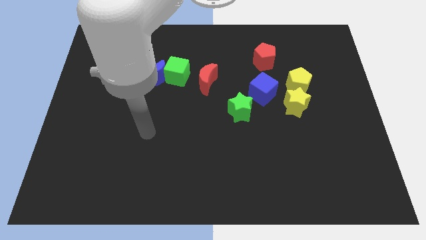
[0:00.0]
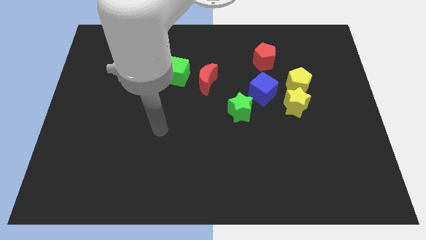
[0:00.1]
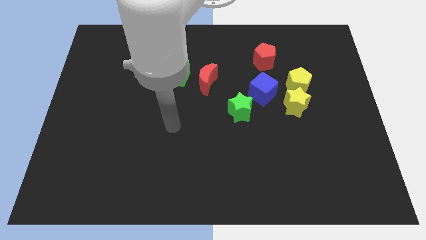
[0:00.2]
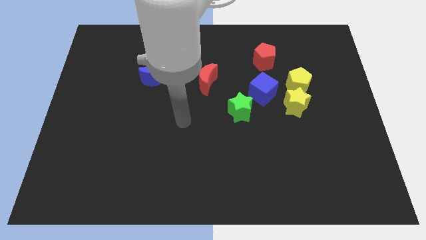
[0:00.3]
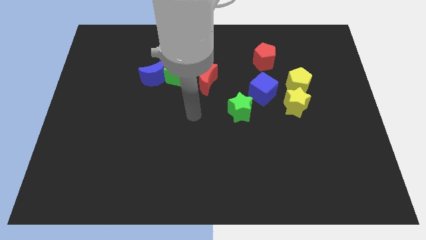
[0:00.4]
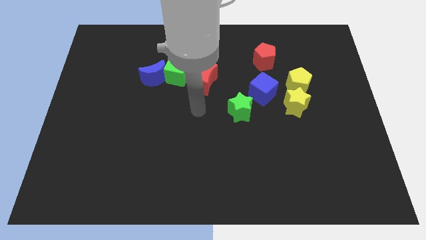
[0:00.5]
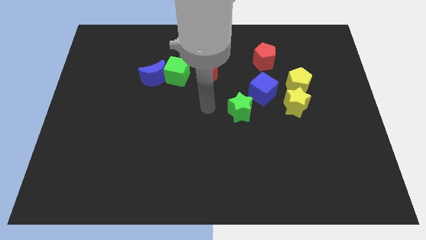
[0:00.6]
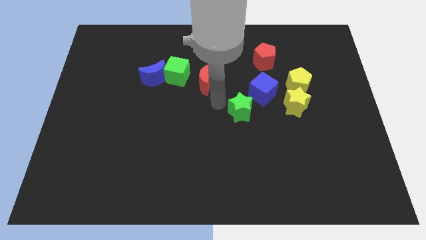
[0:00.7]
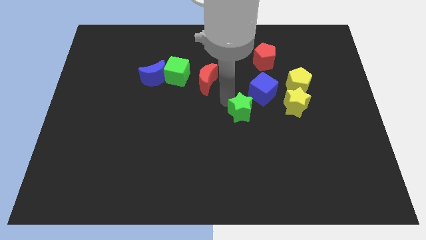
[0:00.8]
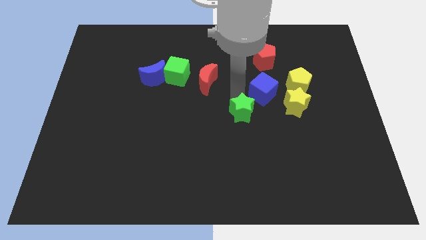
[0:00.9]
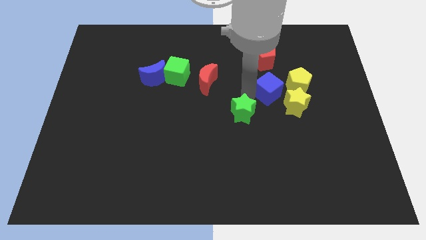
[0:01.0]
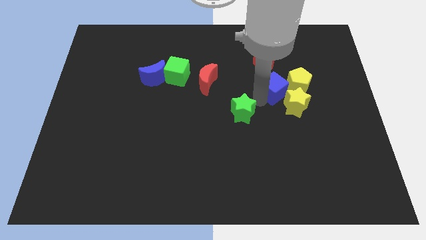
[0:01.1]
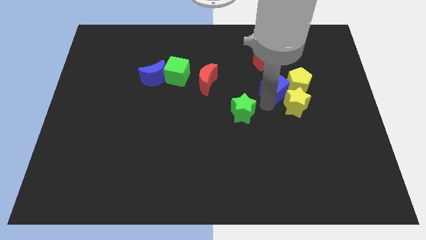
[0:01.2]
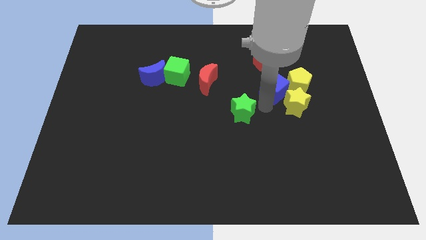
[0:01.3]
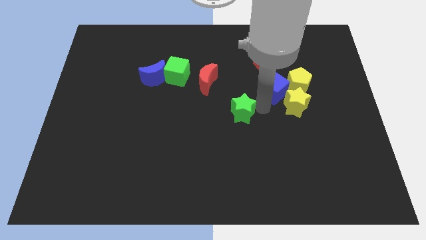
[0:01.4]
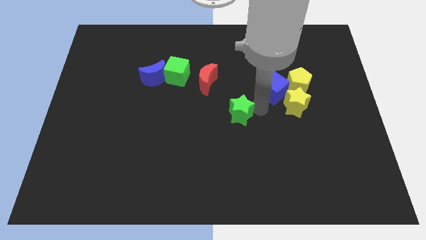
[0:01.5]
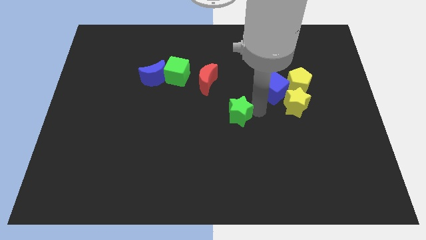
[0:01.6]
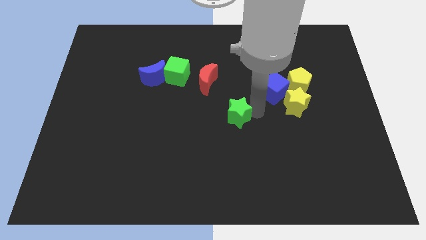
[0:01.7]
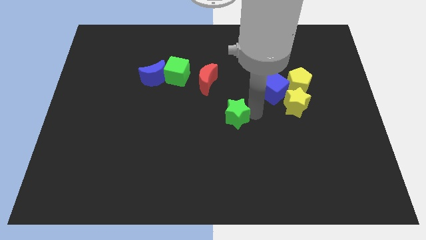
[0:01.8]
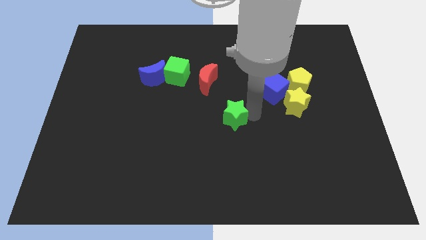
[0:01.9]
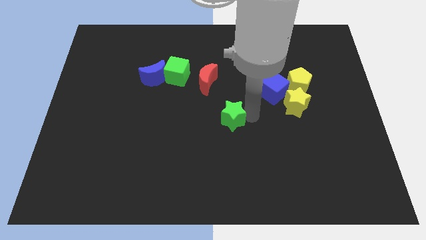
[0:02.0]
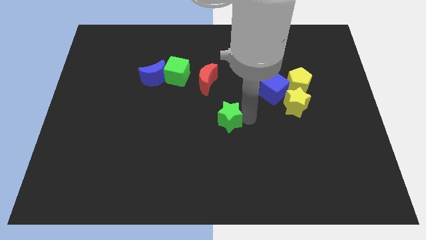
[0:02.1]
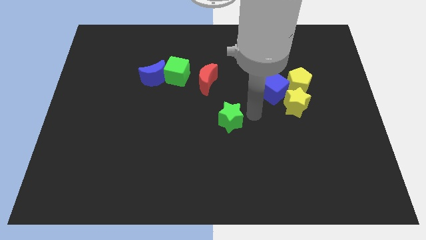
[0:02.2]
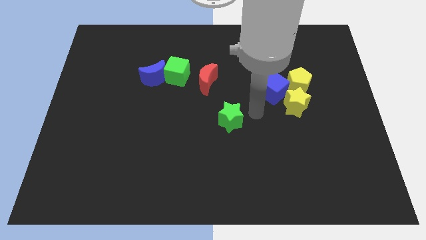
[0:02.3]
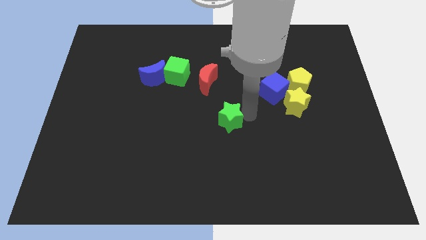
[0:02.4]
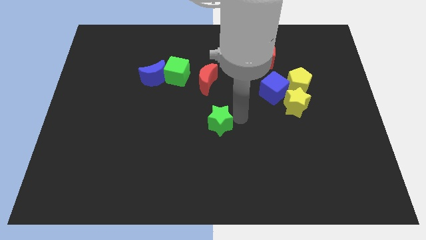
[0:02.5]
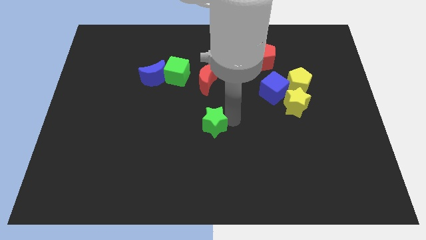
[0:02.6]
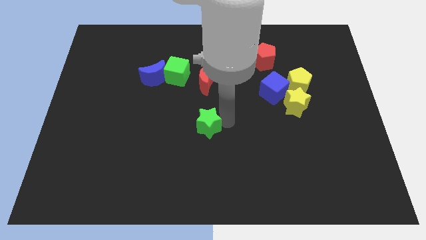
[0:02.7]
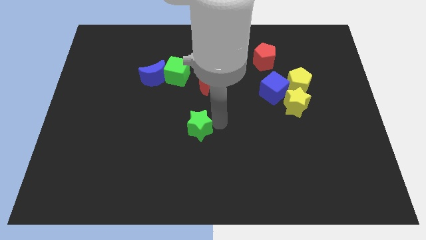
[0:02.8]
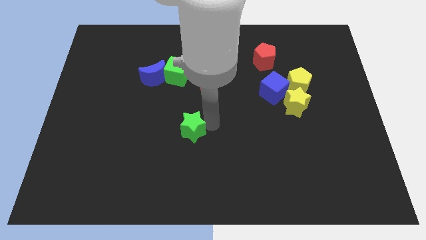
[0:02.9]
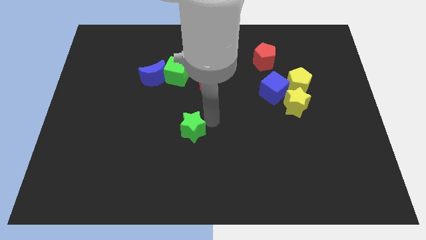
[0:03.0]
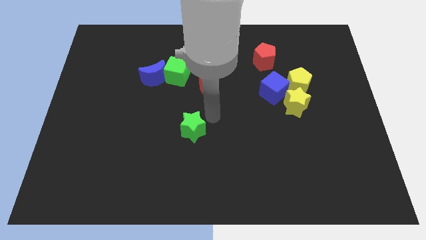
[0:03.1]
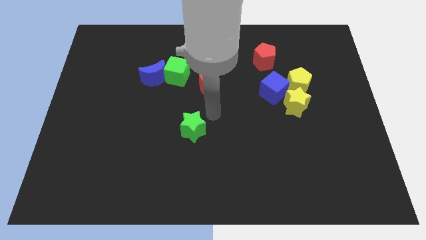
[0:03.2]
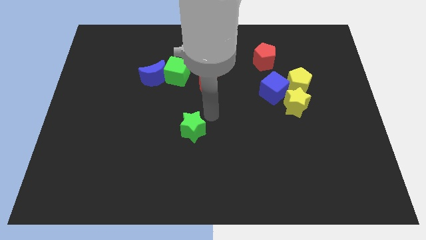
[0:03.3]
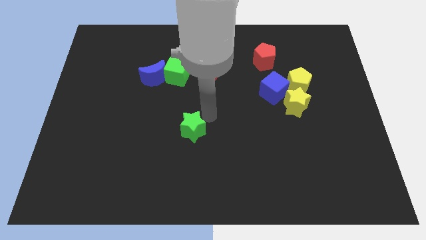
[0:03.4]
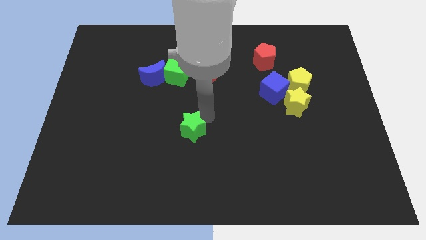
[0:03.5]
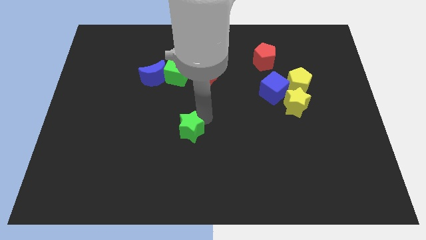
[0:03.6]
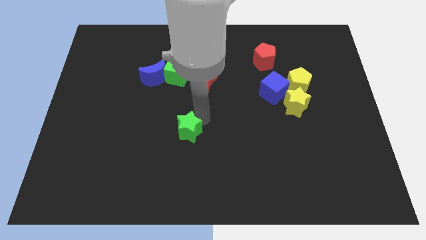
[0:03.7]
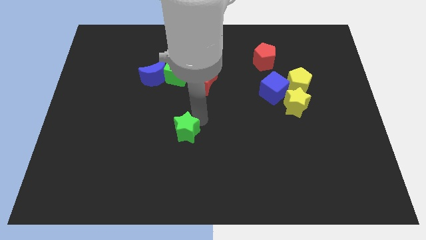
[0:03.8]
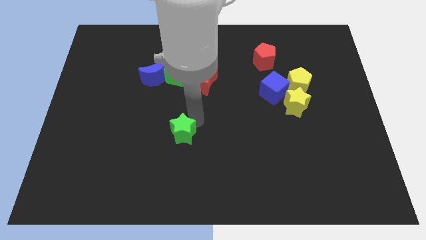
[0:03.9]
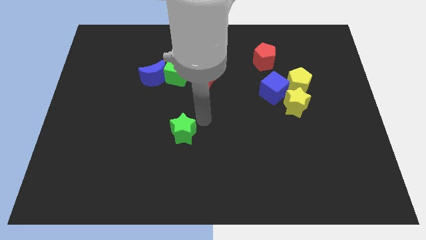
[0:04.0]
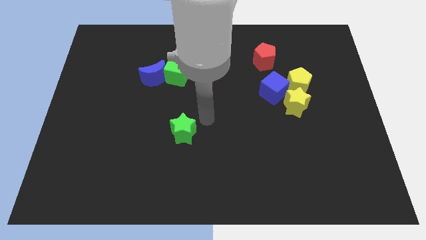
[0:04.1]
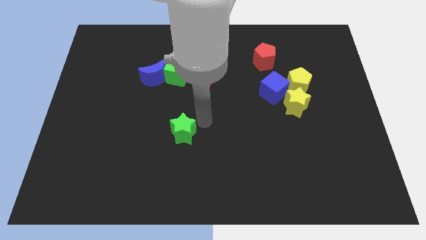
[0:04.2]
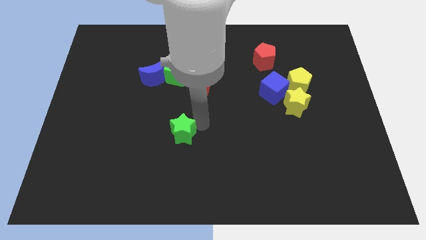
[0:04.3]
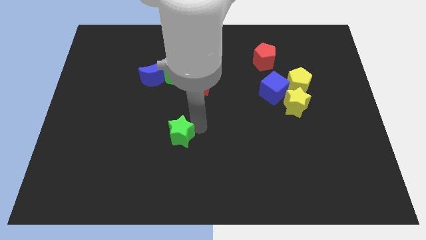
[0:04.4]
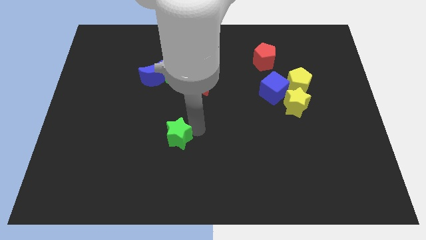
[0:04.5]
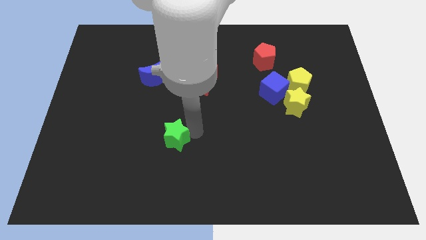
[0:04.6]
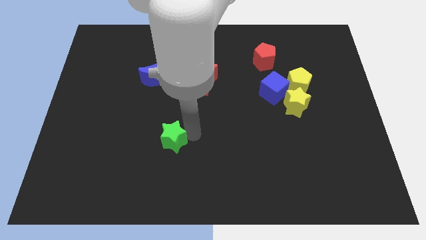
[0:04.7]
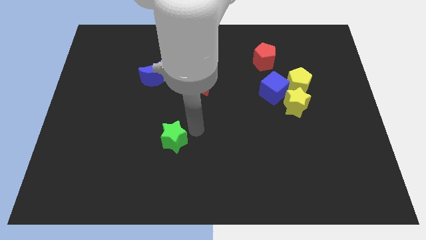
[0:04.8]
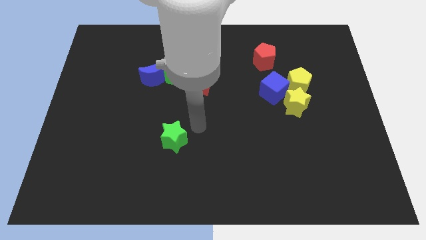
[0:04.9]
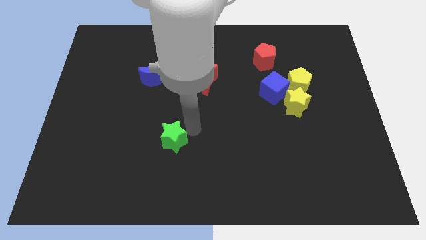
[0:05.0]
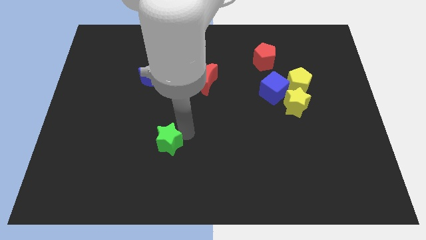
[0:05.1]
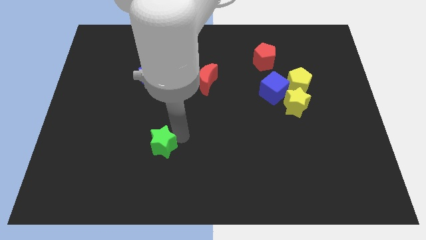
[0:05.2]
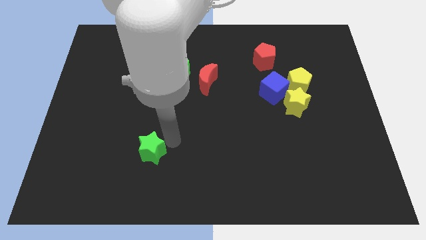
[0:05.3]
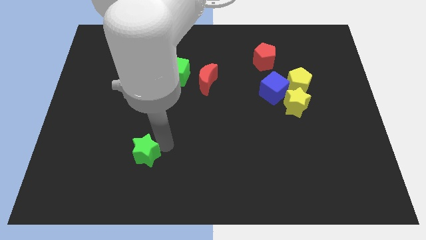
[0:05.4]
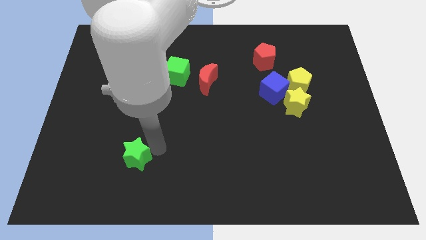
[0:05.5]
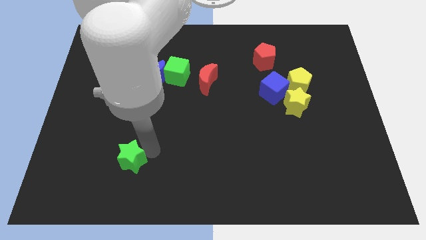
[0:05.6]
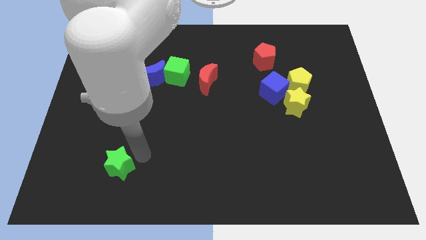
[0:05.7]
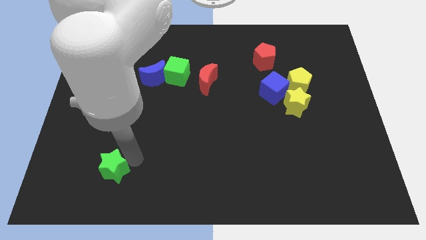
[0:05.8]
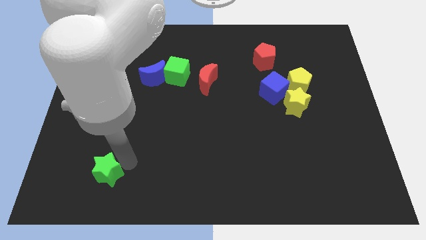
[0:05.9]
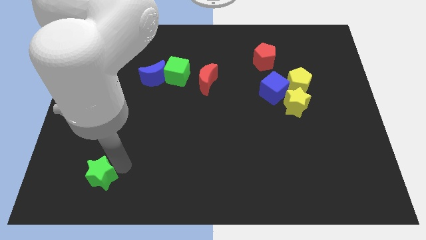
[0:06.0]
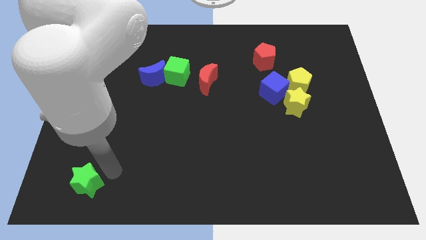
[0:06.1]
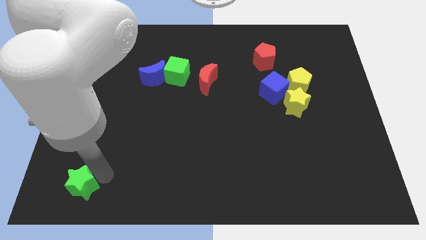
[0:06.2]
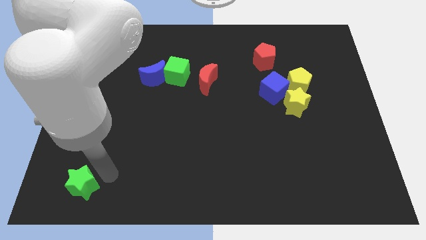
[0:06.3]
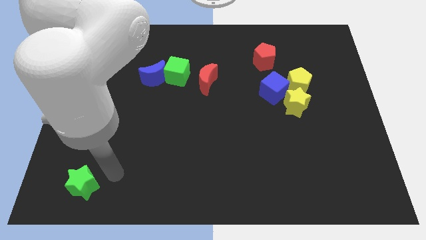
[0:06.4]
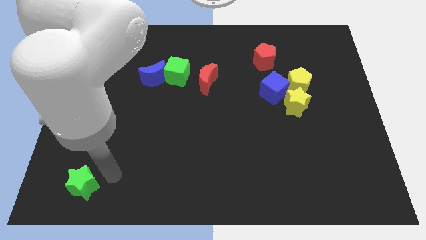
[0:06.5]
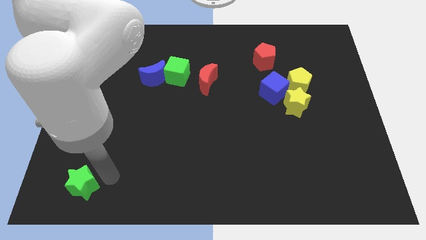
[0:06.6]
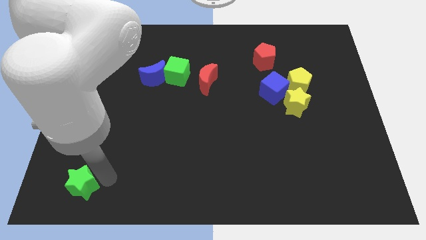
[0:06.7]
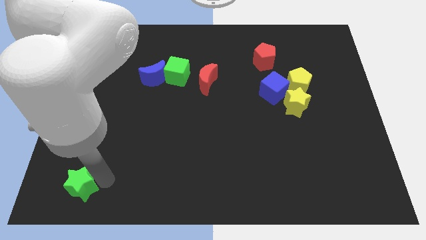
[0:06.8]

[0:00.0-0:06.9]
slide the green star to the bottom left of the board
